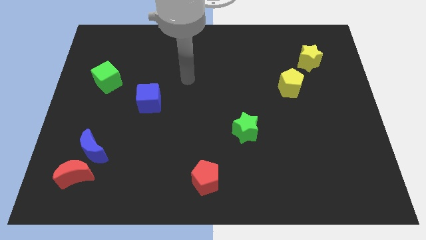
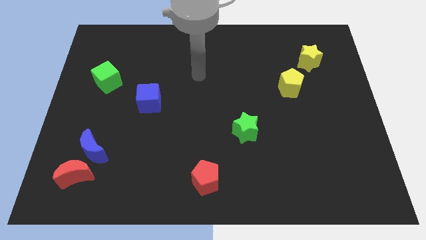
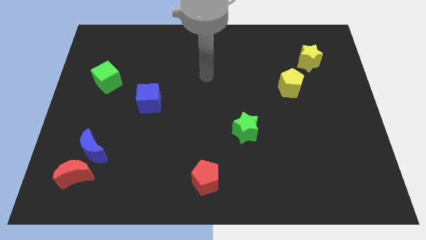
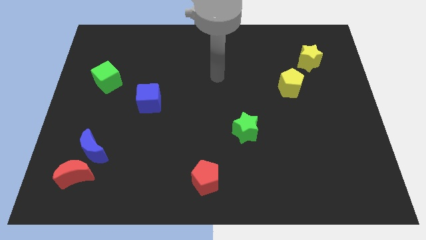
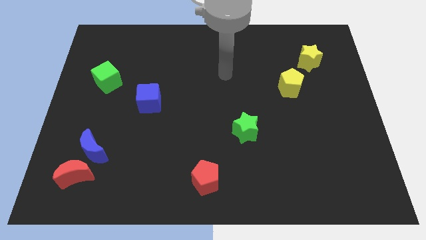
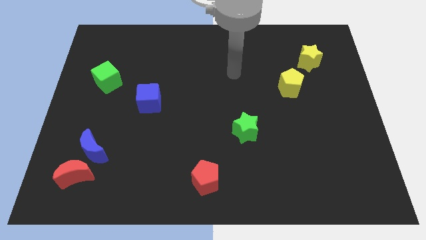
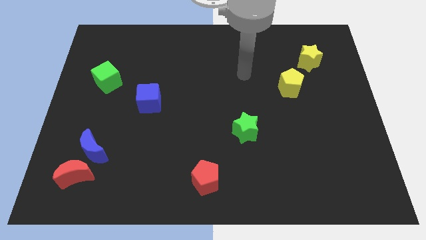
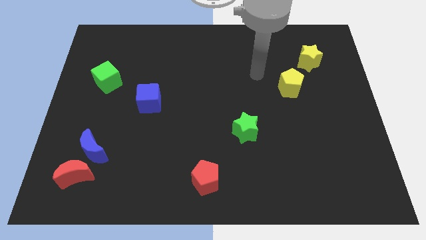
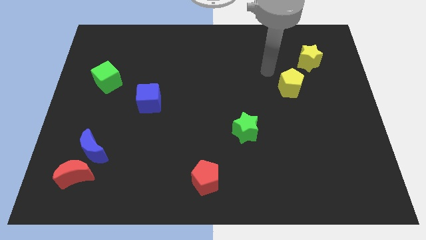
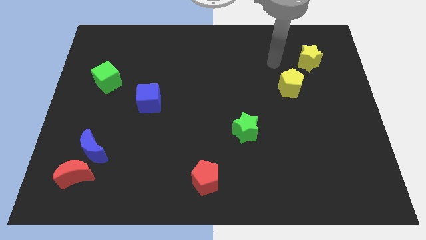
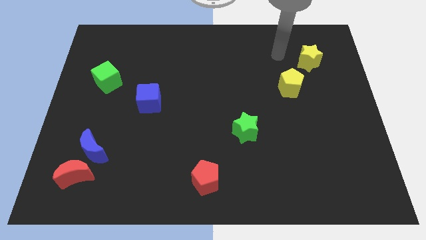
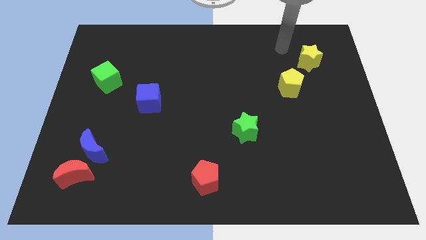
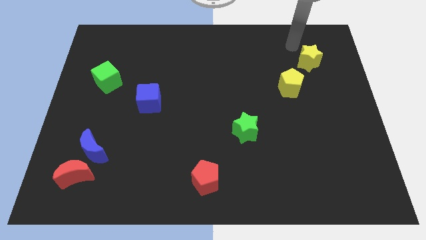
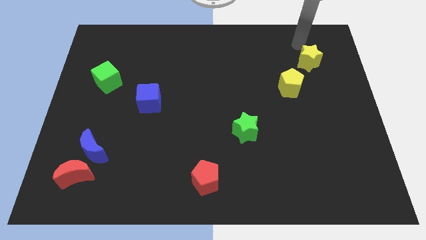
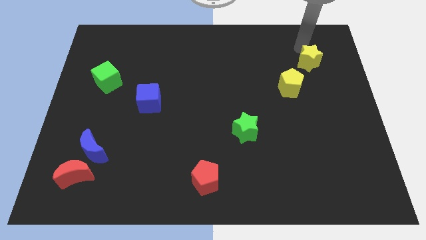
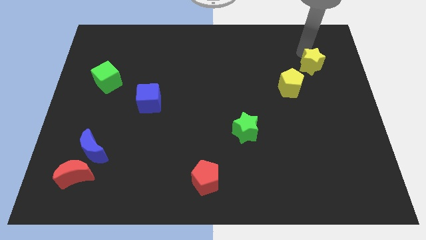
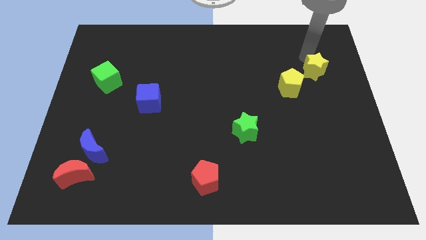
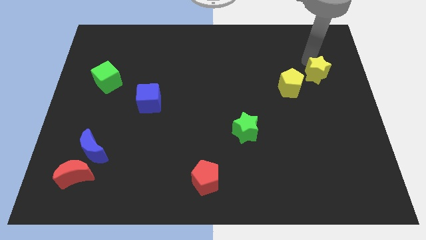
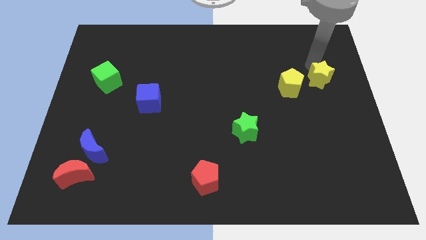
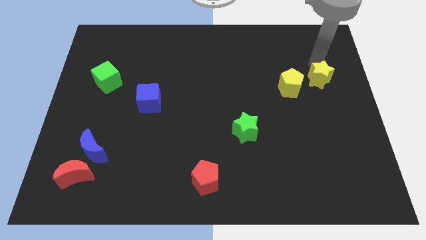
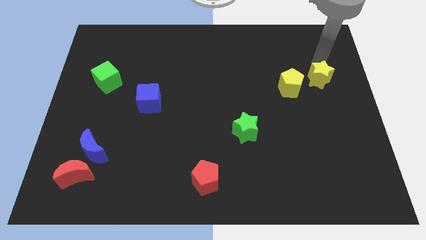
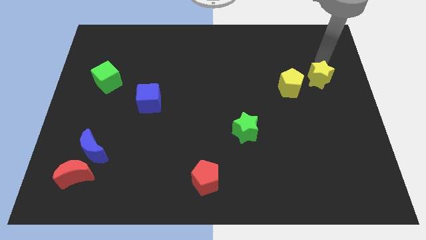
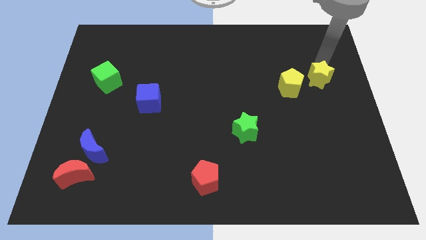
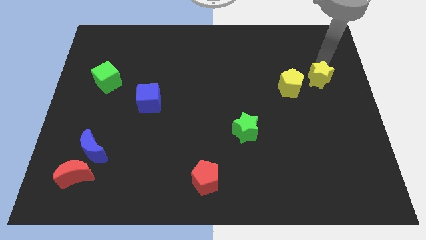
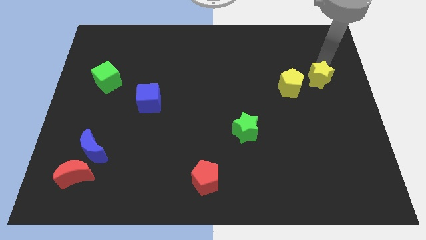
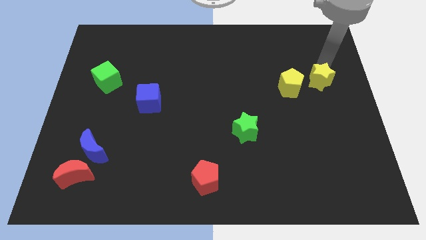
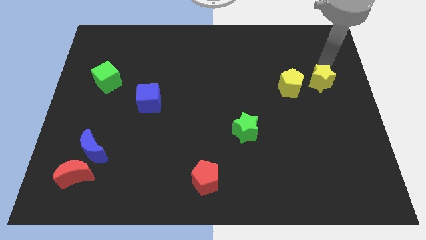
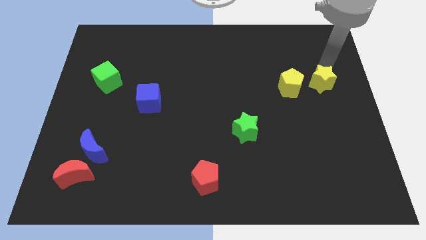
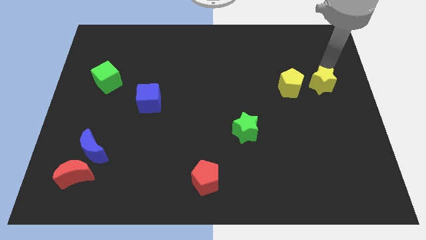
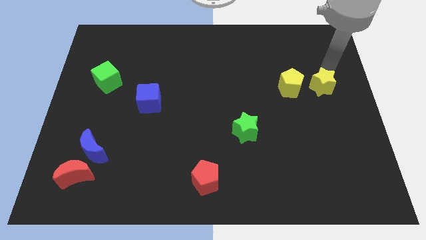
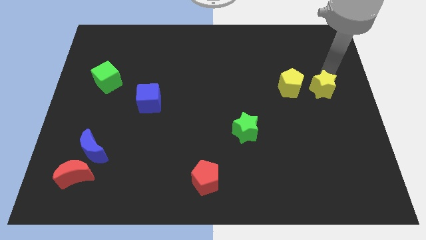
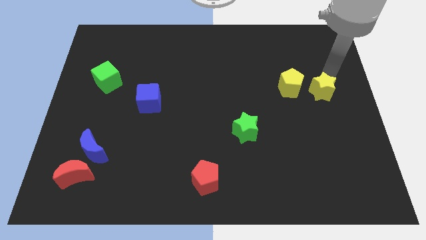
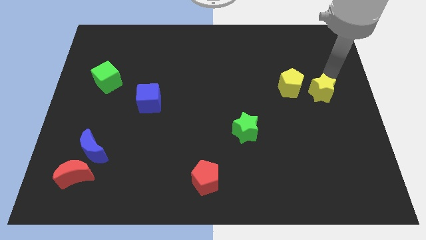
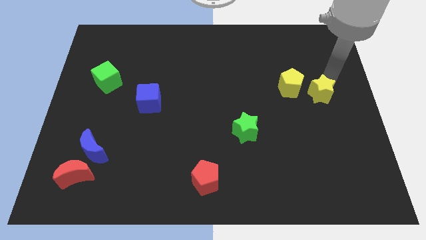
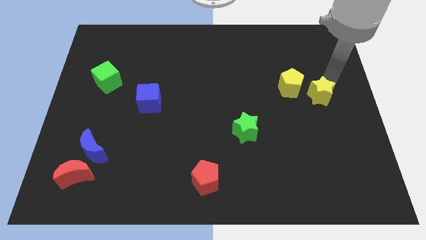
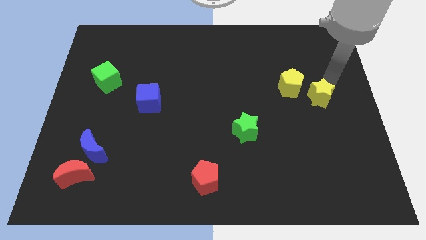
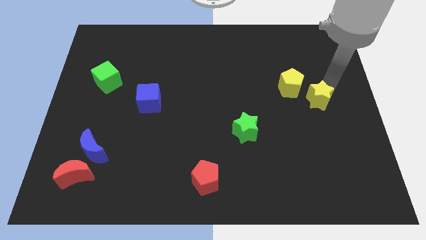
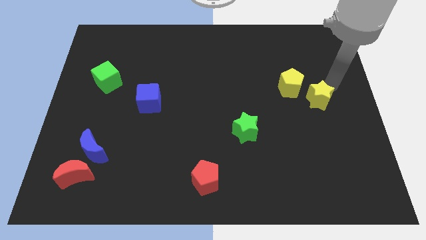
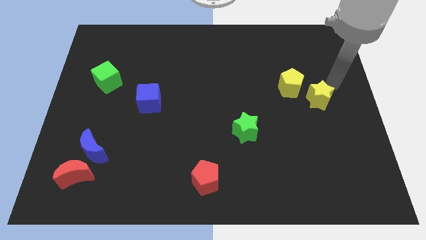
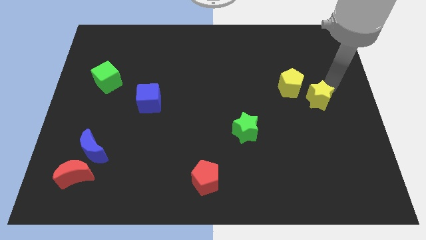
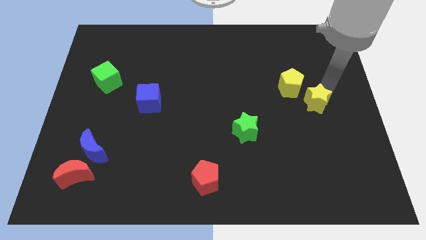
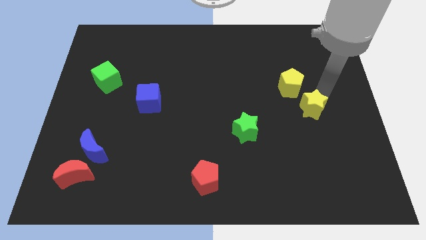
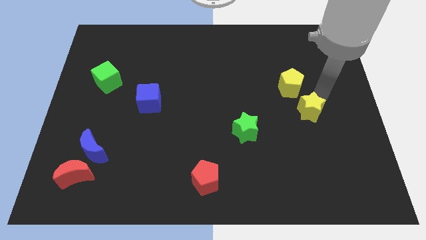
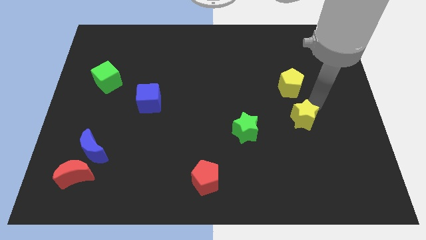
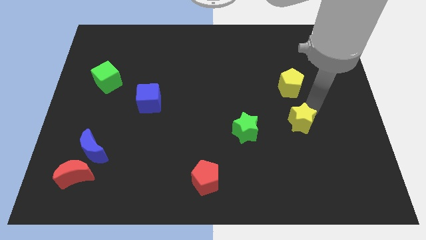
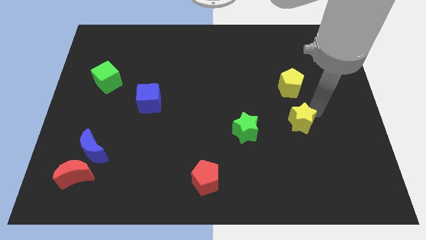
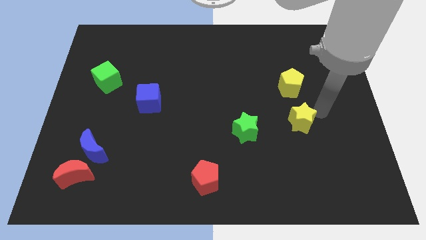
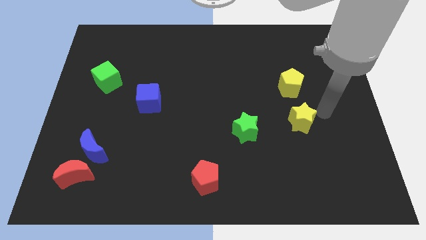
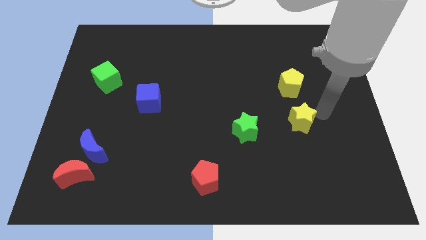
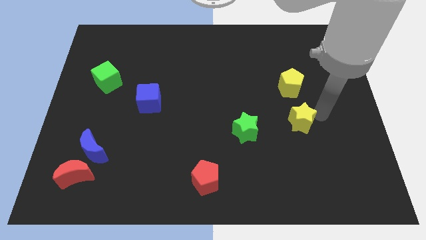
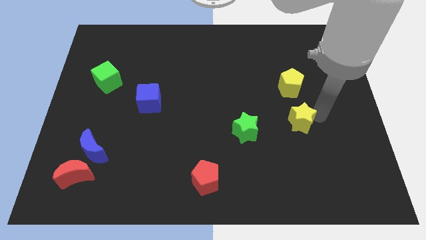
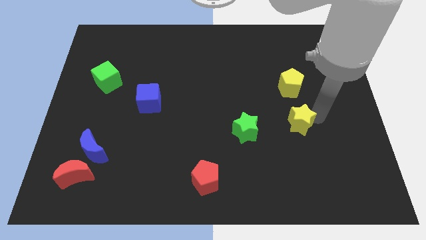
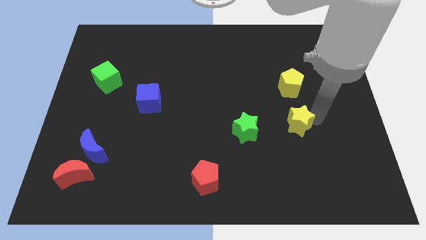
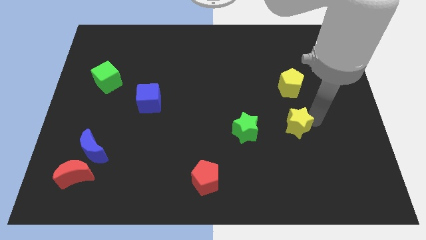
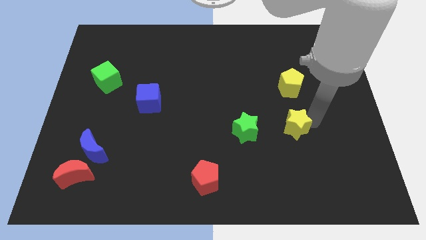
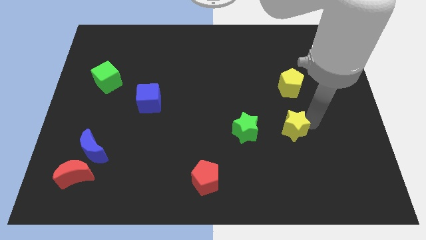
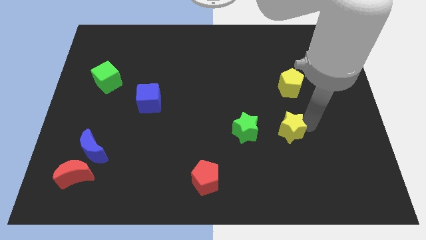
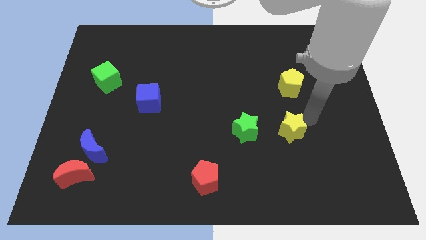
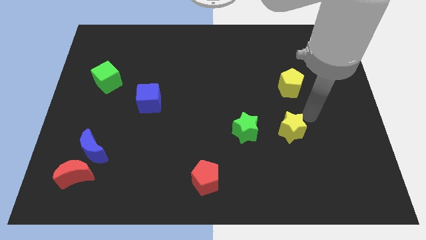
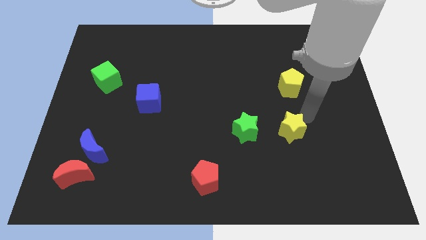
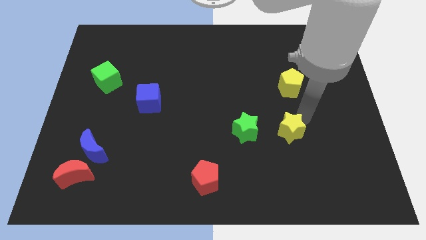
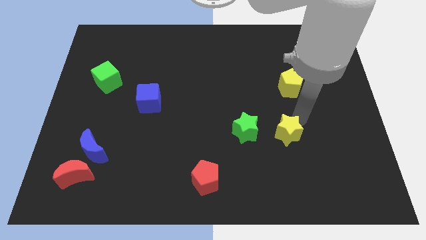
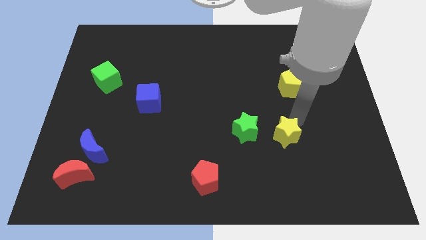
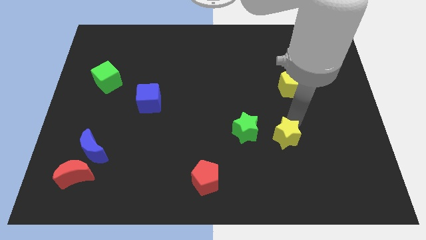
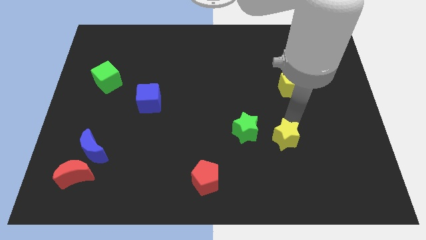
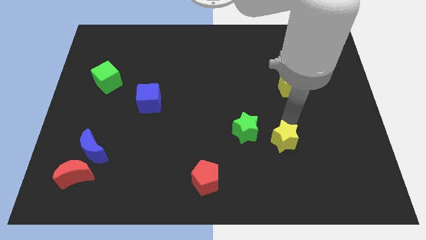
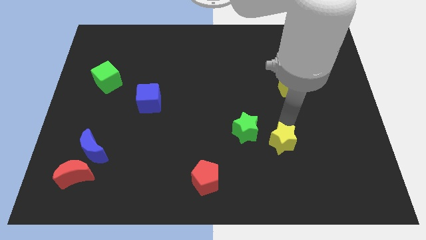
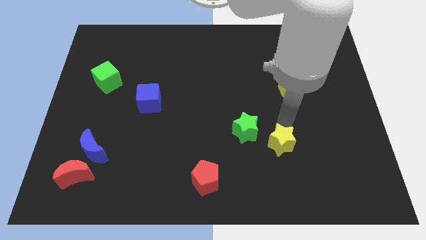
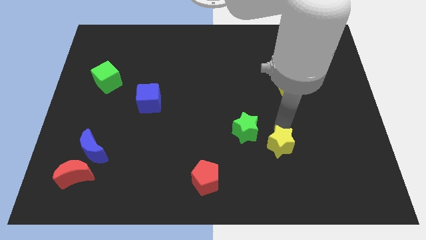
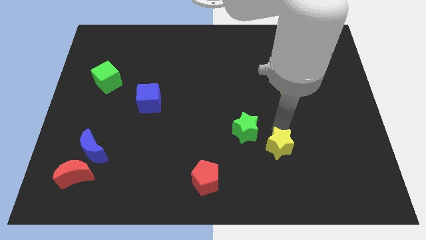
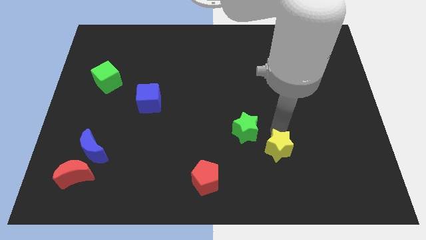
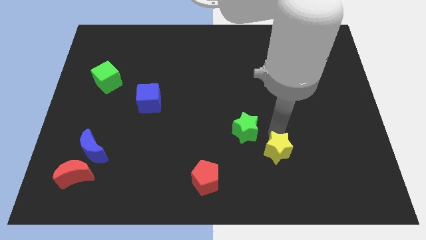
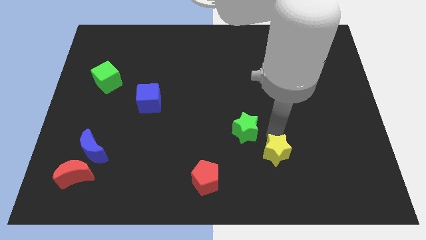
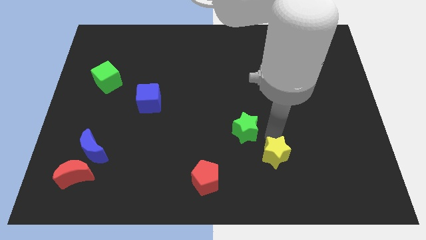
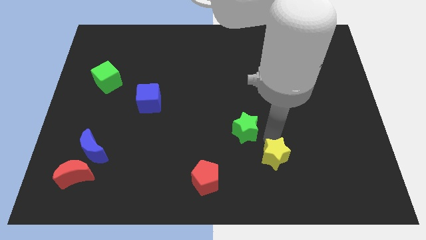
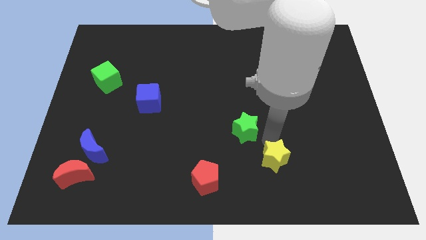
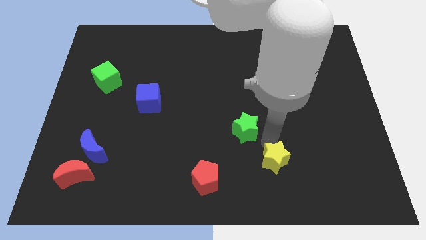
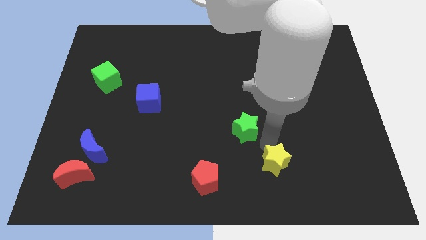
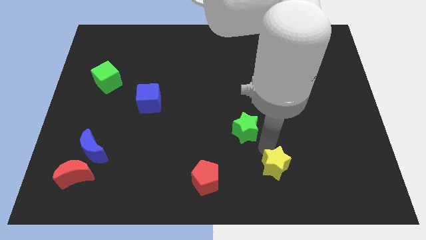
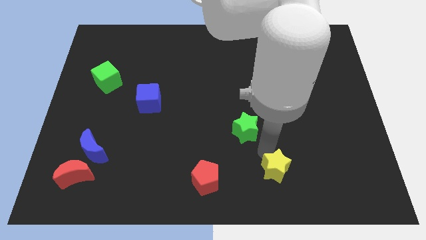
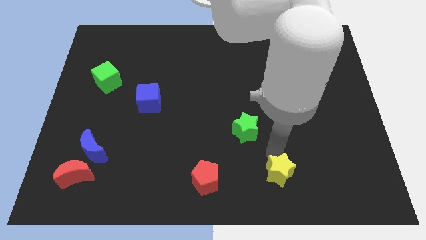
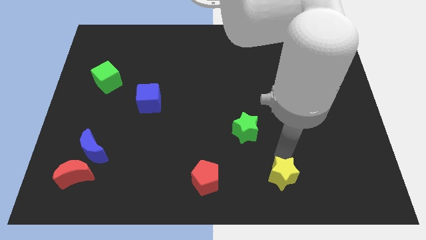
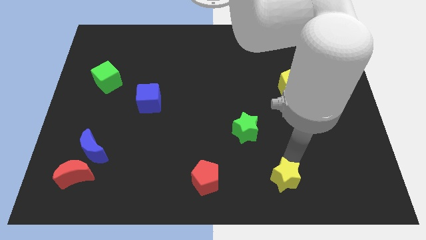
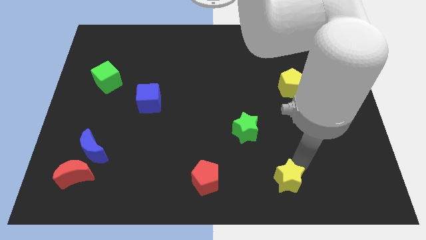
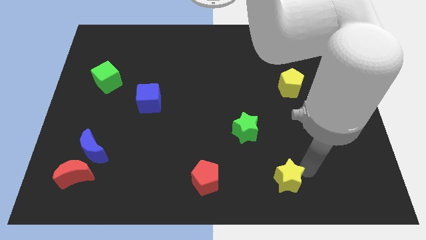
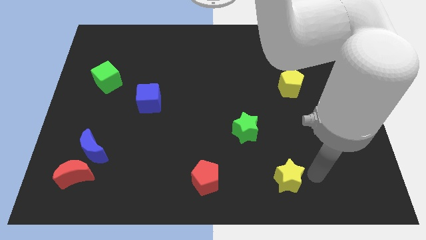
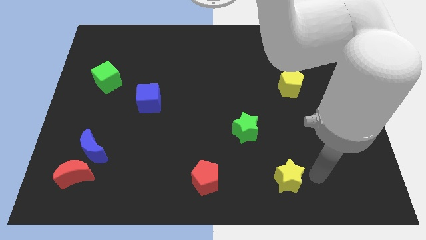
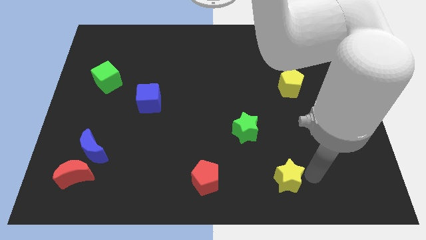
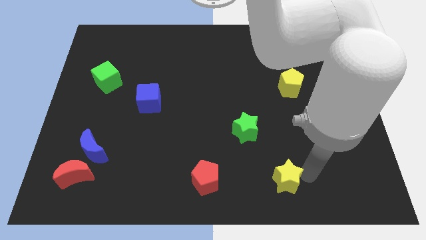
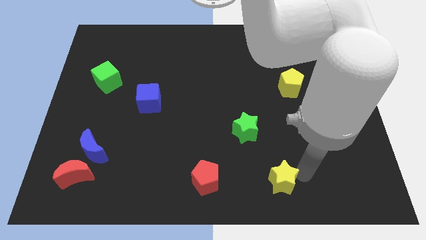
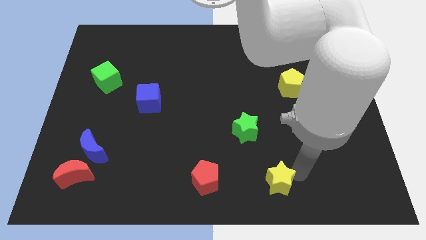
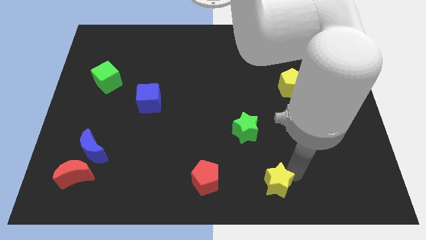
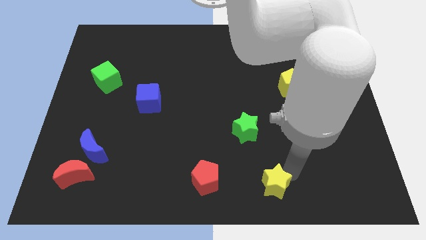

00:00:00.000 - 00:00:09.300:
move the yellow star to the bottom side
